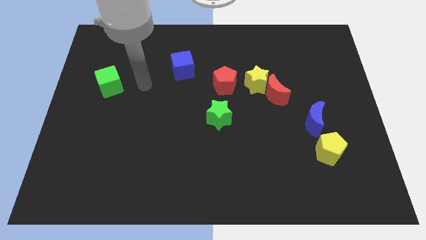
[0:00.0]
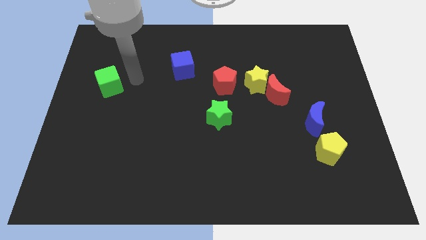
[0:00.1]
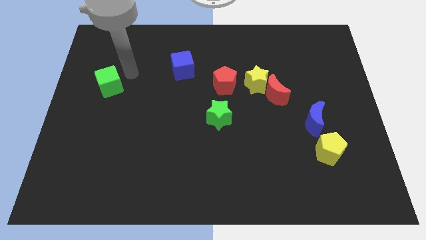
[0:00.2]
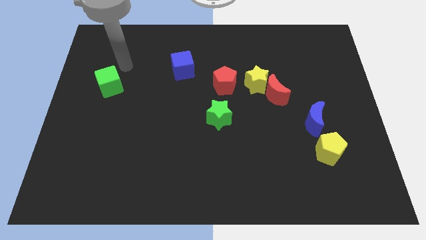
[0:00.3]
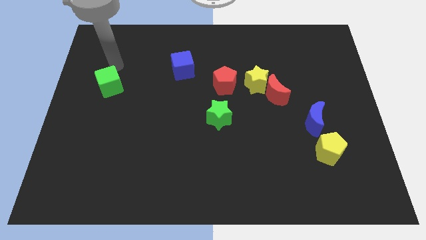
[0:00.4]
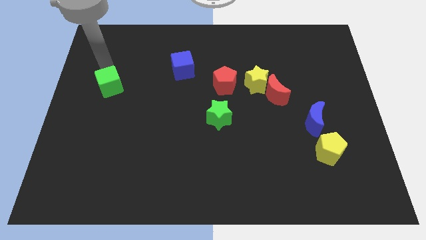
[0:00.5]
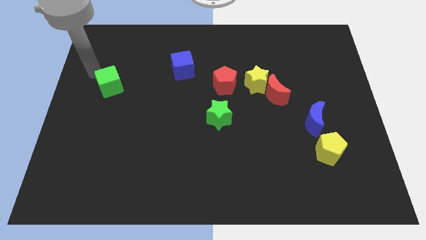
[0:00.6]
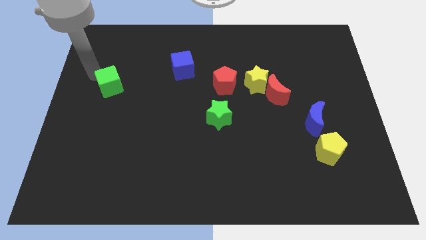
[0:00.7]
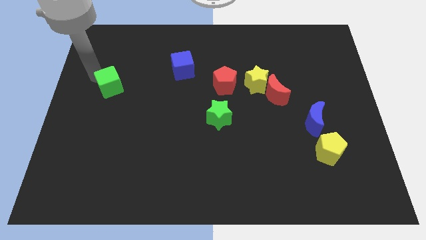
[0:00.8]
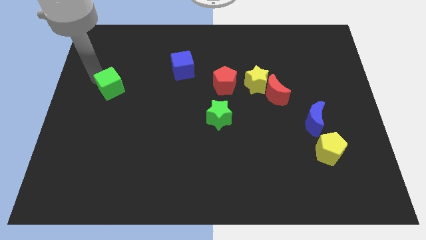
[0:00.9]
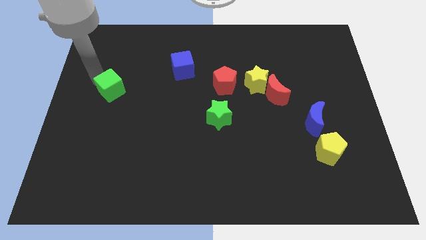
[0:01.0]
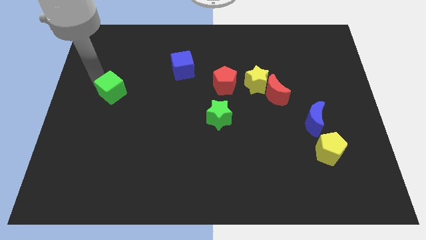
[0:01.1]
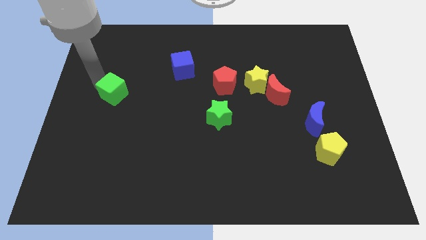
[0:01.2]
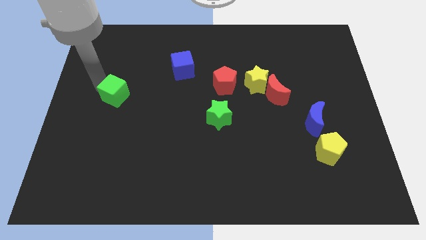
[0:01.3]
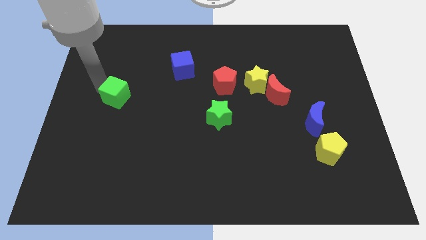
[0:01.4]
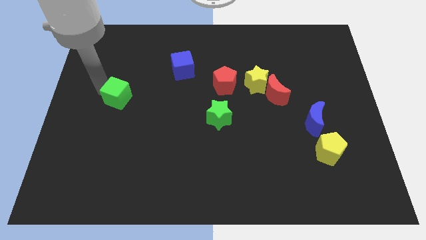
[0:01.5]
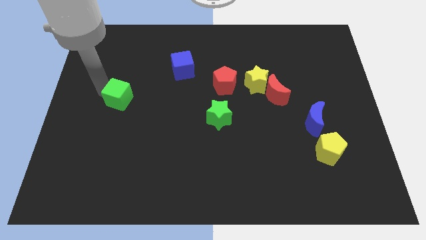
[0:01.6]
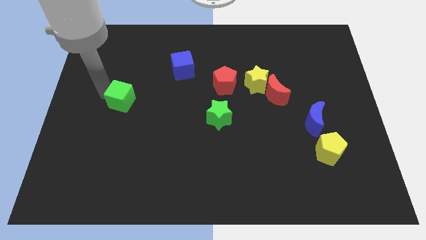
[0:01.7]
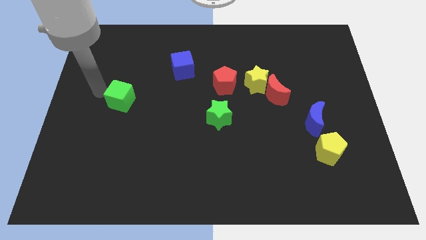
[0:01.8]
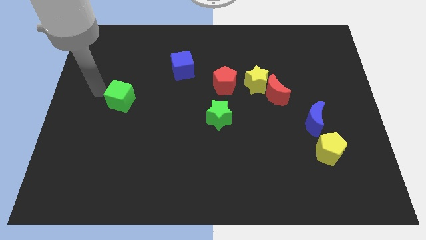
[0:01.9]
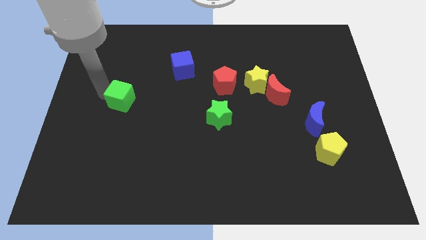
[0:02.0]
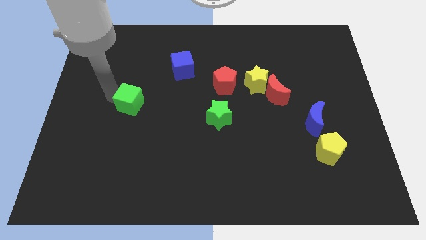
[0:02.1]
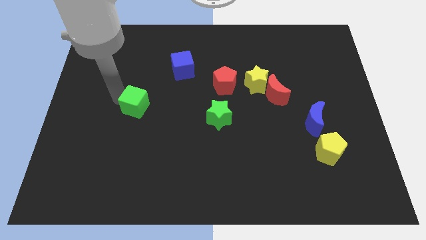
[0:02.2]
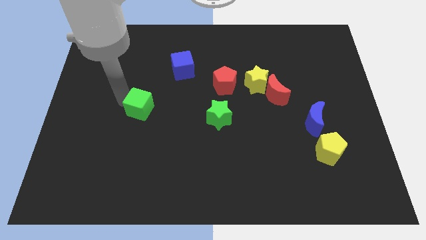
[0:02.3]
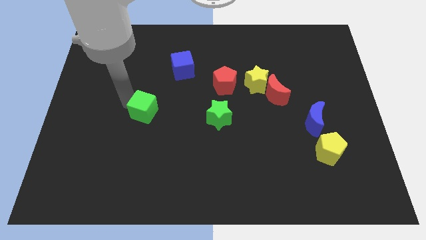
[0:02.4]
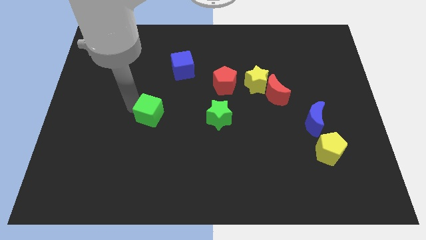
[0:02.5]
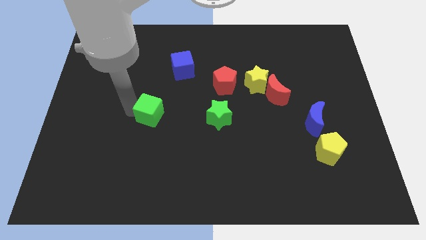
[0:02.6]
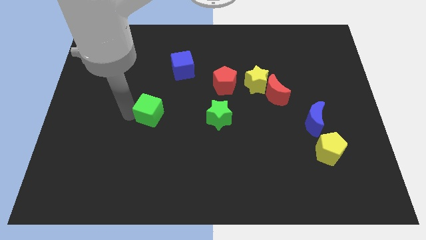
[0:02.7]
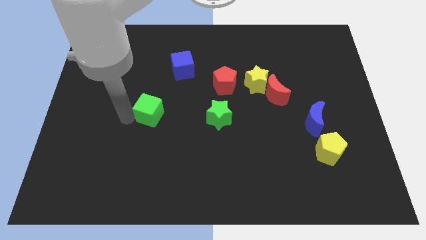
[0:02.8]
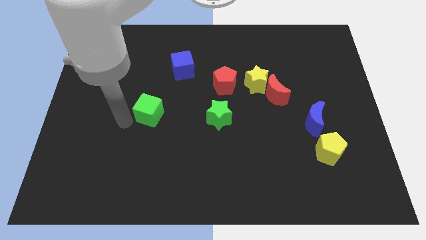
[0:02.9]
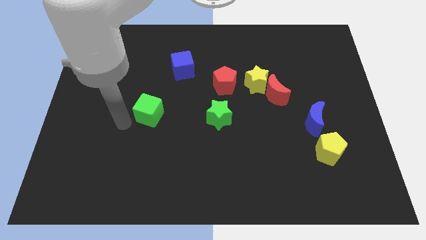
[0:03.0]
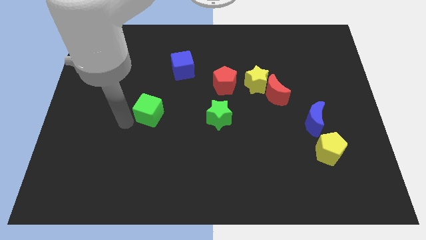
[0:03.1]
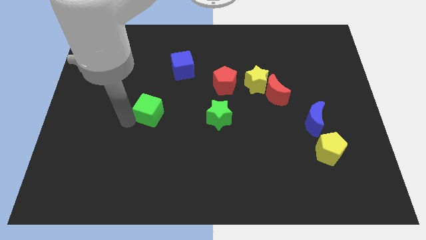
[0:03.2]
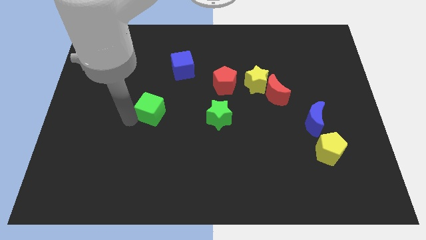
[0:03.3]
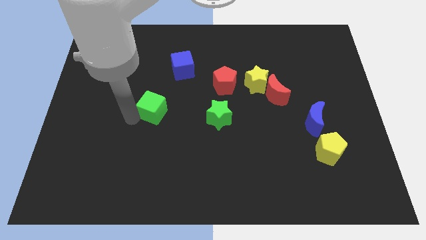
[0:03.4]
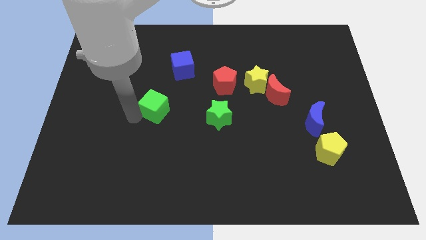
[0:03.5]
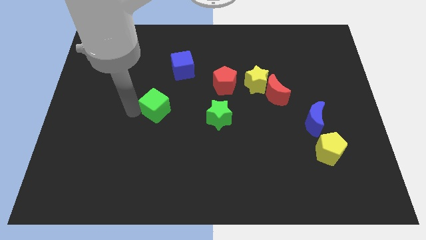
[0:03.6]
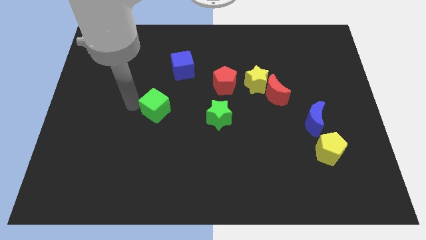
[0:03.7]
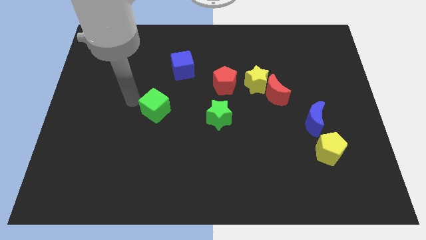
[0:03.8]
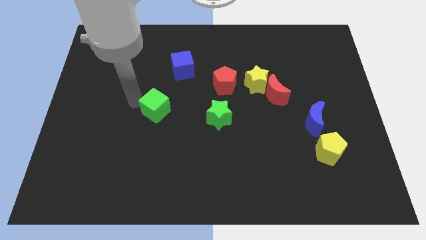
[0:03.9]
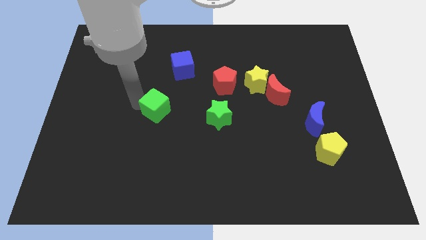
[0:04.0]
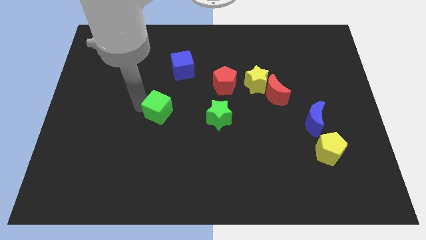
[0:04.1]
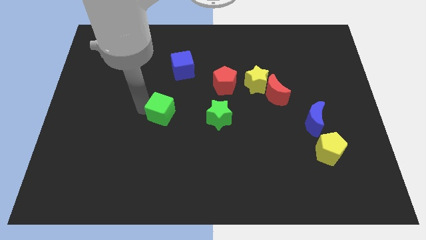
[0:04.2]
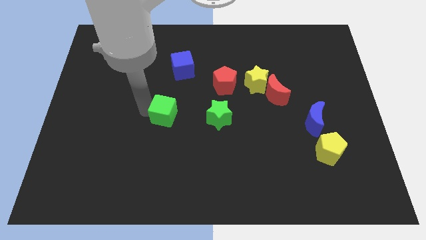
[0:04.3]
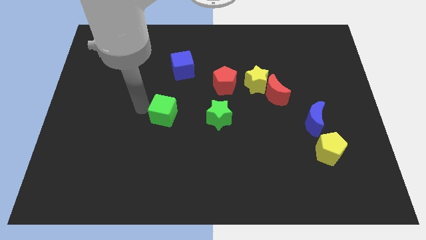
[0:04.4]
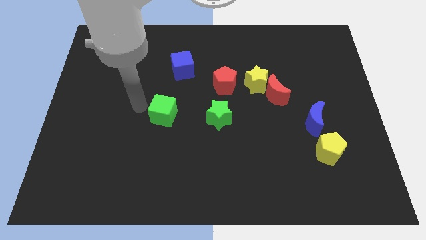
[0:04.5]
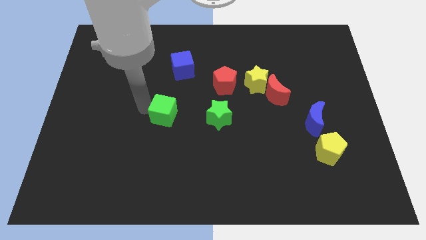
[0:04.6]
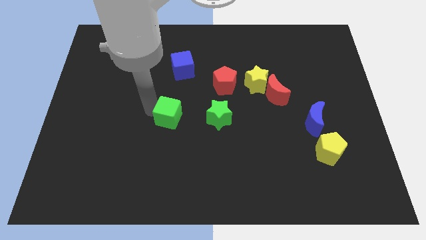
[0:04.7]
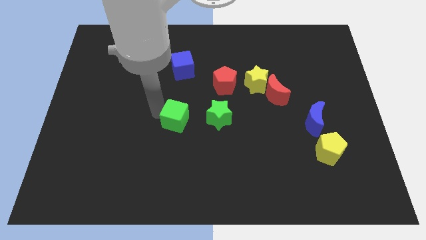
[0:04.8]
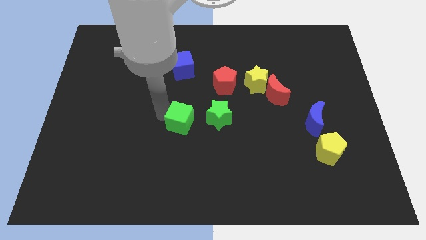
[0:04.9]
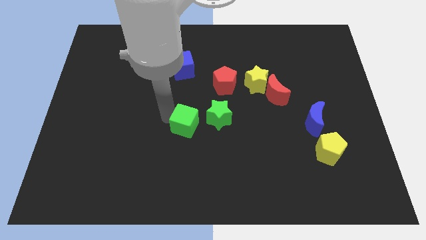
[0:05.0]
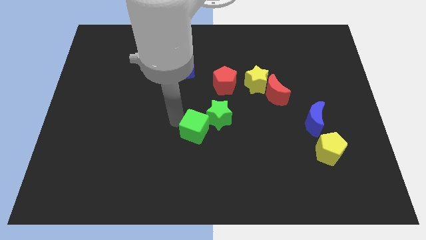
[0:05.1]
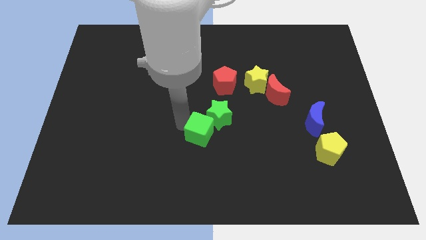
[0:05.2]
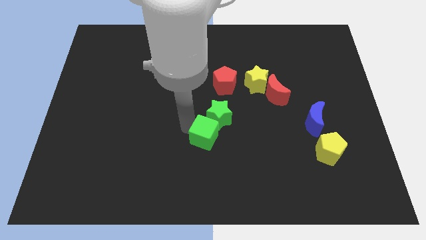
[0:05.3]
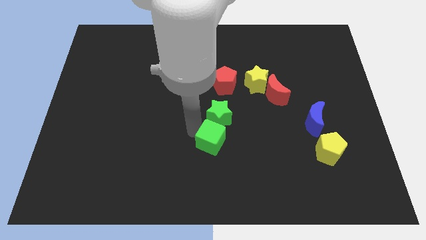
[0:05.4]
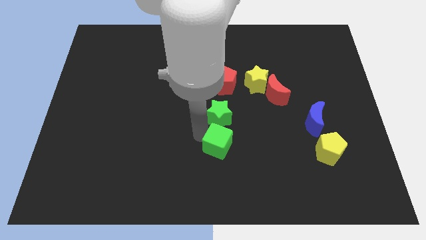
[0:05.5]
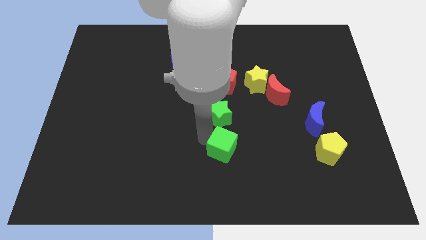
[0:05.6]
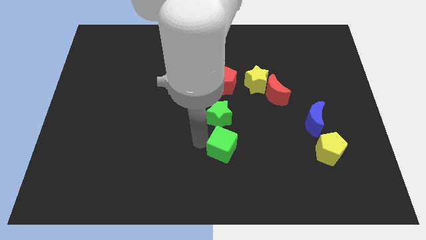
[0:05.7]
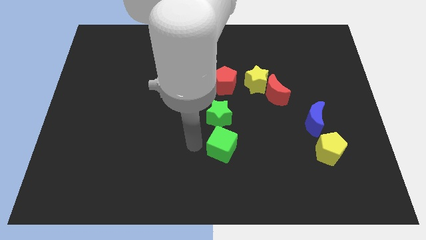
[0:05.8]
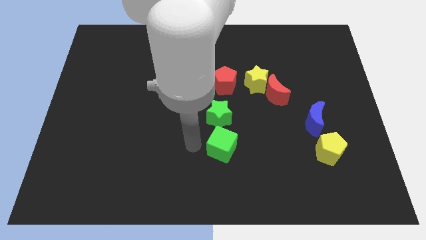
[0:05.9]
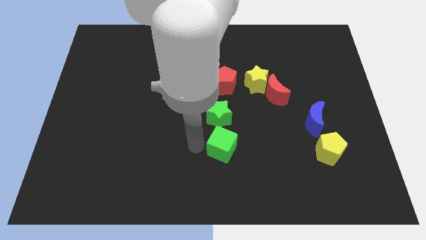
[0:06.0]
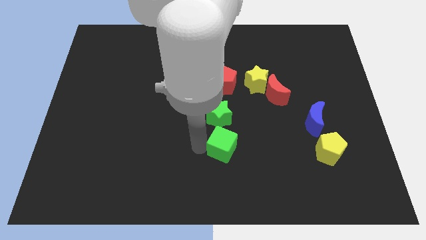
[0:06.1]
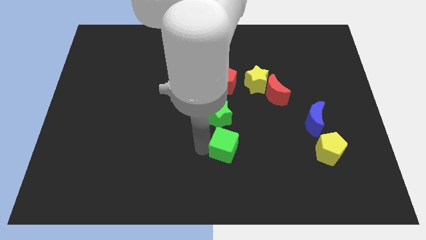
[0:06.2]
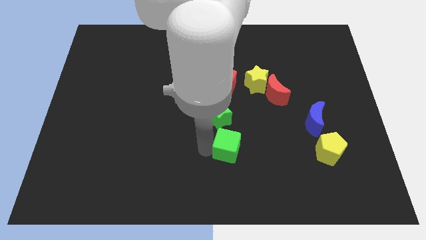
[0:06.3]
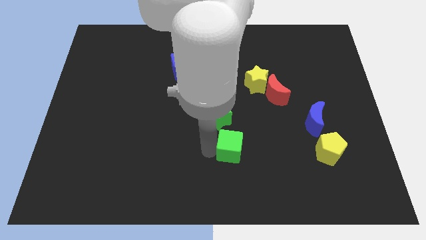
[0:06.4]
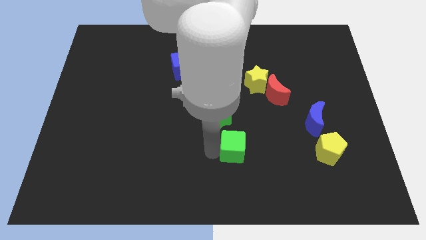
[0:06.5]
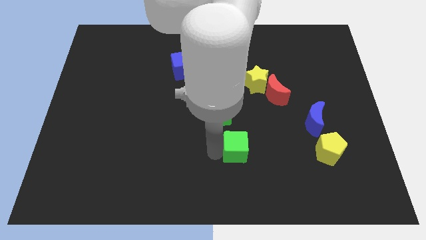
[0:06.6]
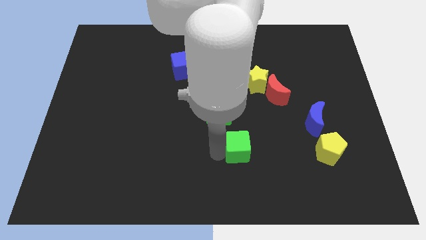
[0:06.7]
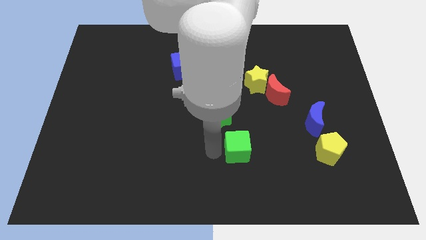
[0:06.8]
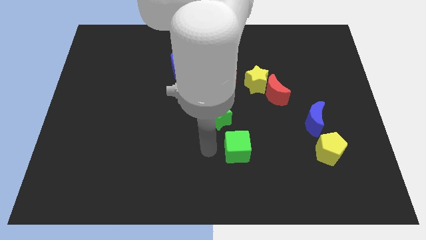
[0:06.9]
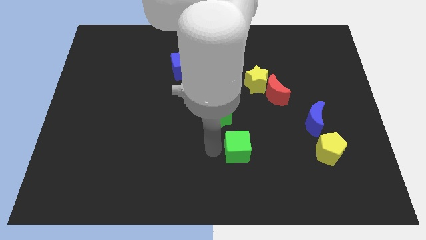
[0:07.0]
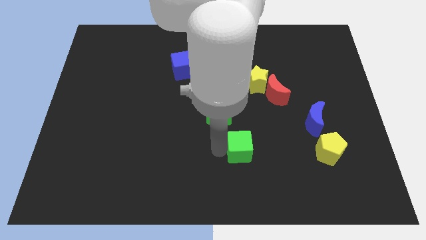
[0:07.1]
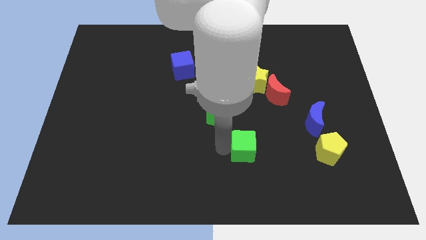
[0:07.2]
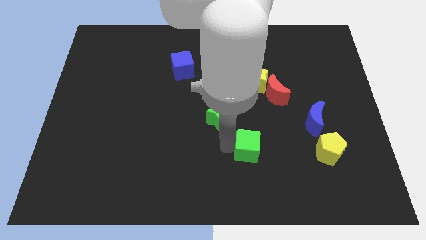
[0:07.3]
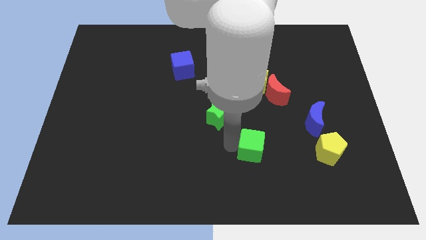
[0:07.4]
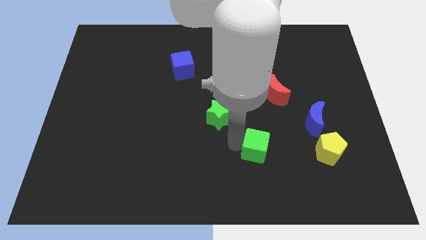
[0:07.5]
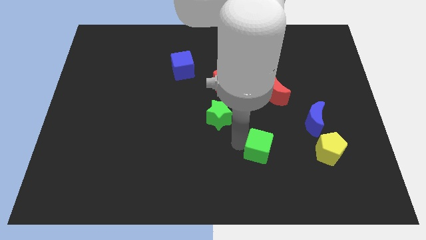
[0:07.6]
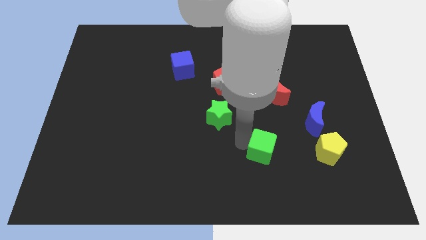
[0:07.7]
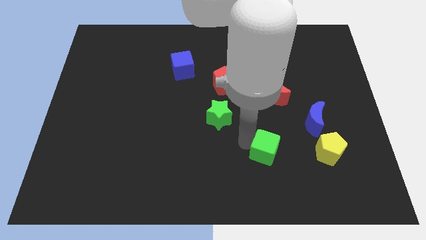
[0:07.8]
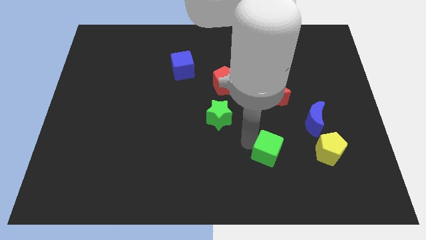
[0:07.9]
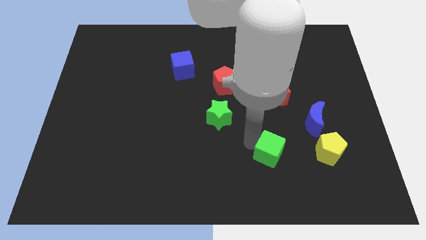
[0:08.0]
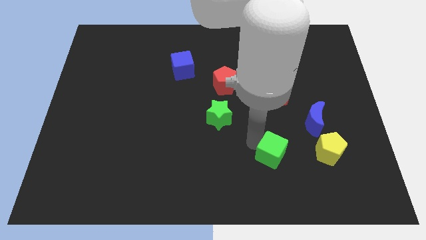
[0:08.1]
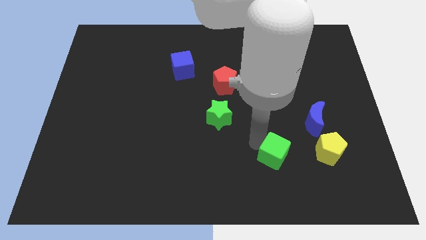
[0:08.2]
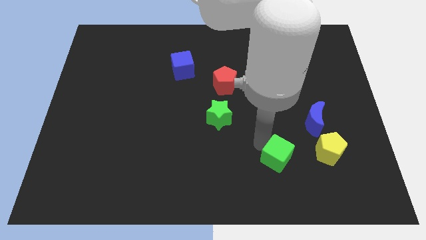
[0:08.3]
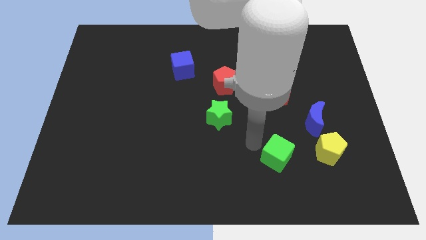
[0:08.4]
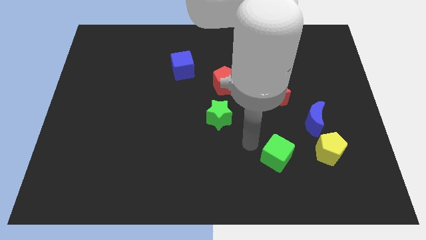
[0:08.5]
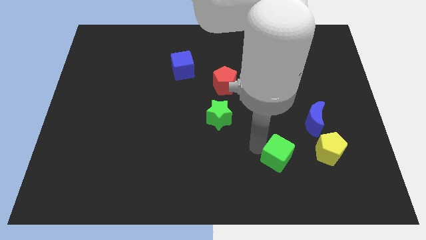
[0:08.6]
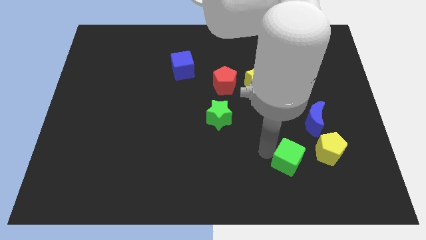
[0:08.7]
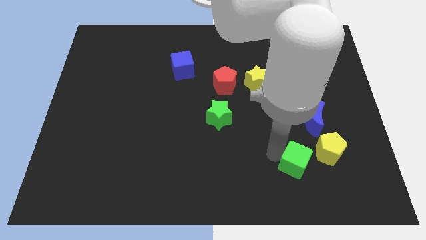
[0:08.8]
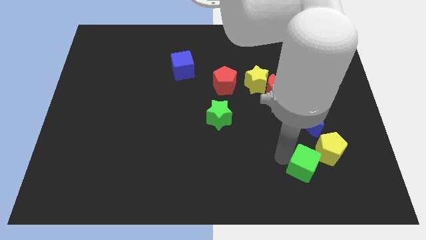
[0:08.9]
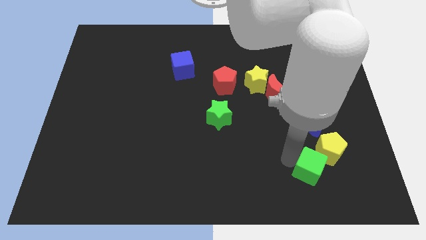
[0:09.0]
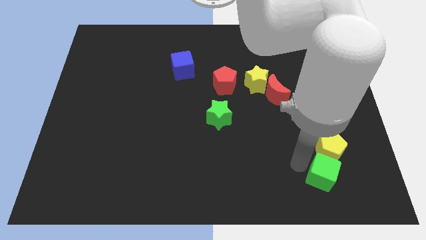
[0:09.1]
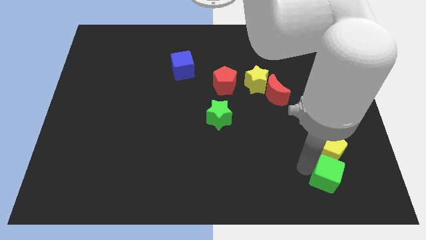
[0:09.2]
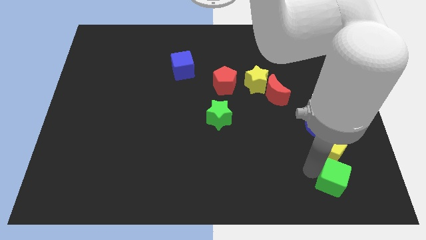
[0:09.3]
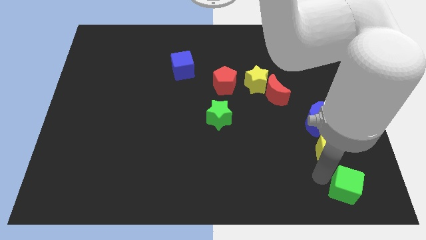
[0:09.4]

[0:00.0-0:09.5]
put the green cube to the bottom right of the board
